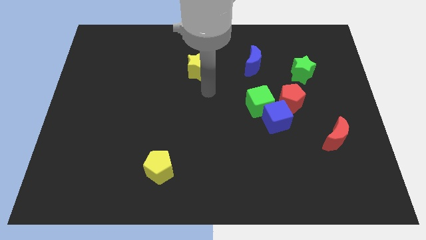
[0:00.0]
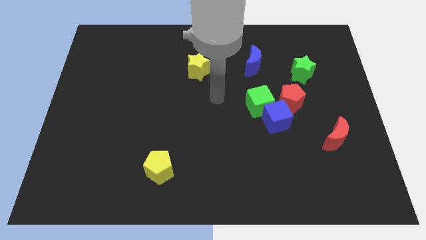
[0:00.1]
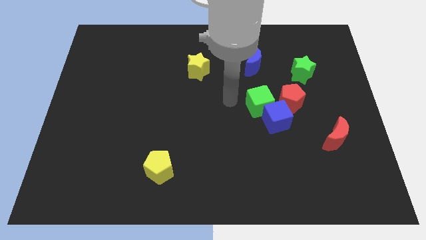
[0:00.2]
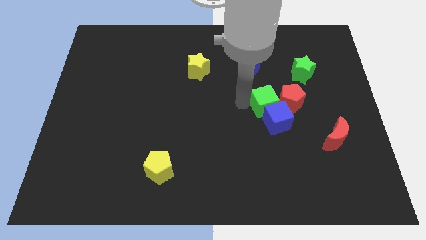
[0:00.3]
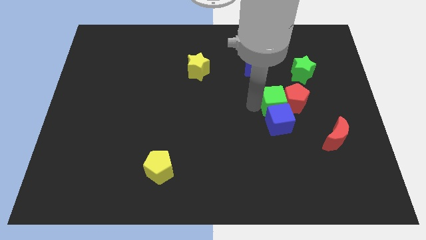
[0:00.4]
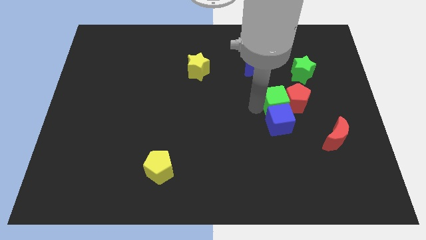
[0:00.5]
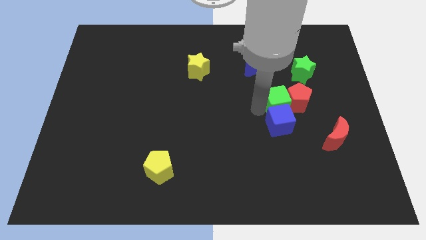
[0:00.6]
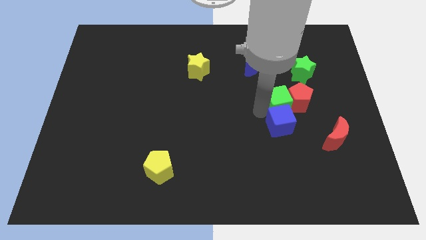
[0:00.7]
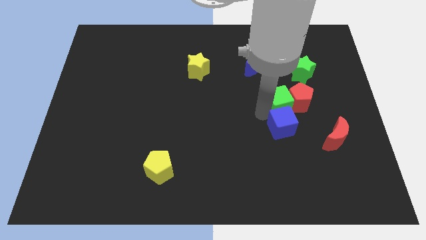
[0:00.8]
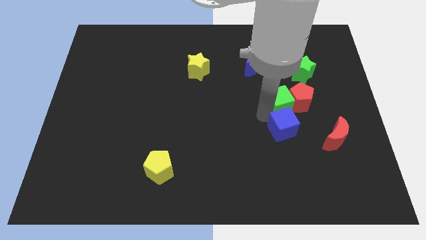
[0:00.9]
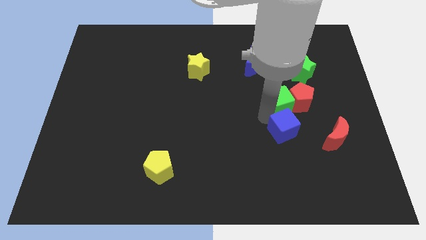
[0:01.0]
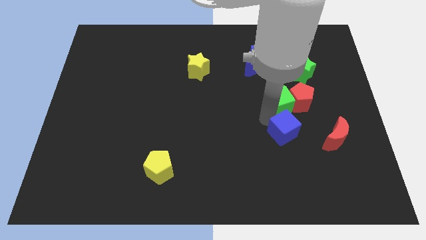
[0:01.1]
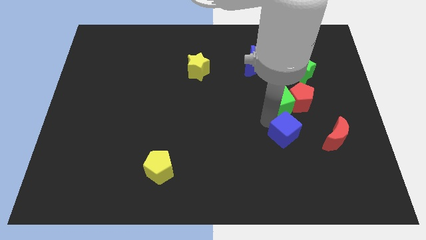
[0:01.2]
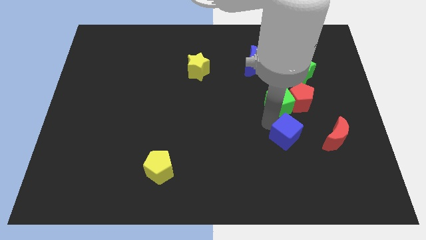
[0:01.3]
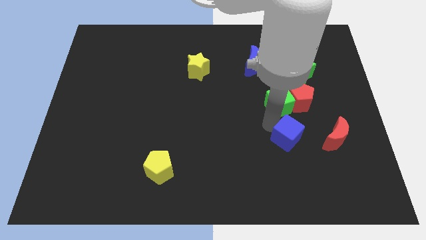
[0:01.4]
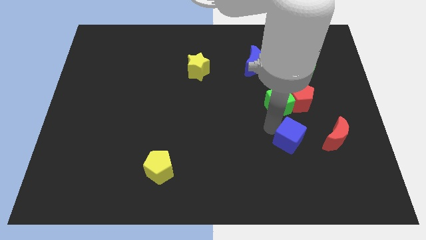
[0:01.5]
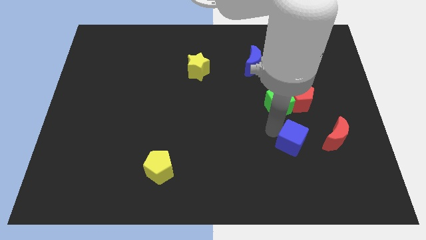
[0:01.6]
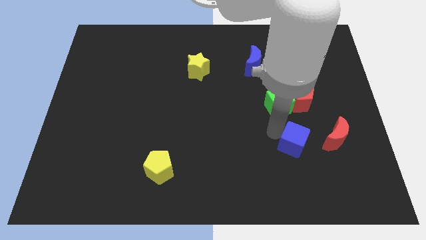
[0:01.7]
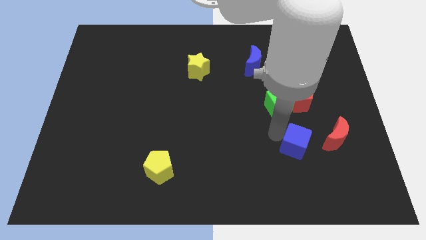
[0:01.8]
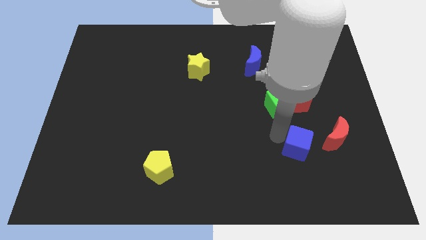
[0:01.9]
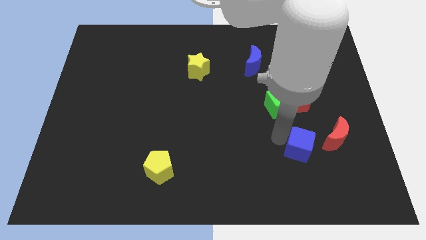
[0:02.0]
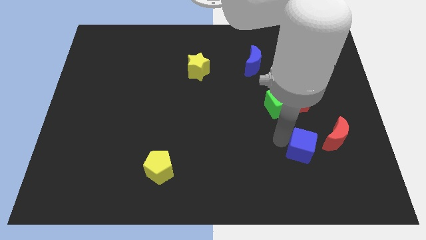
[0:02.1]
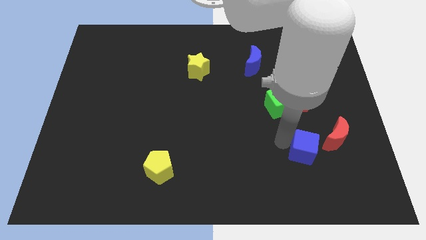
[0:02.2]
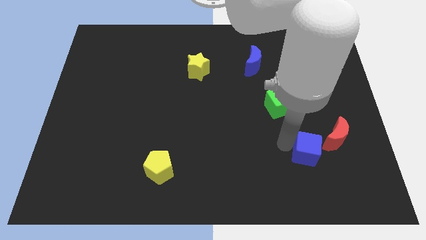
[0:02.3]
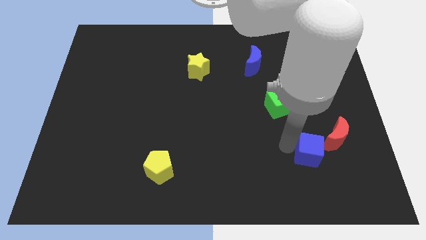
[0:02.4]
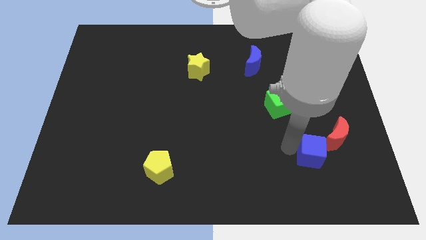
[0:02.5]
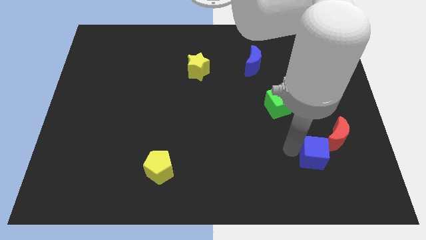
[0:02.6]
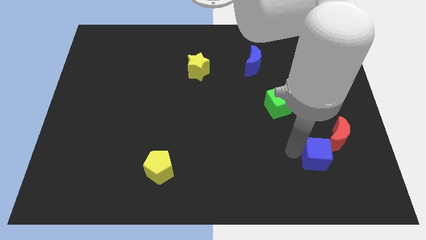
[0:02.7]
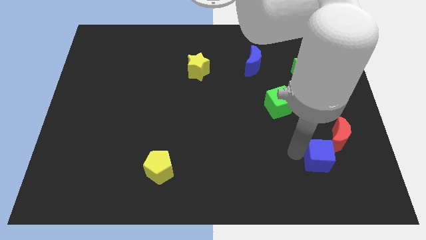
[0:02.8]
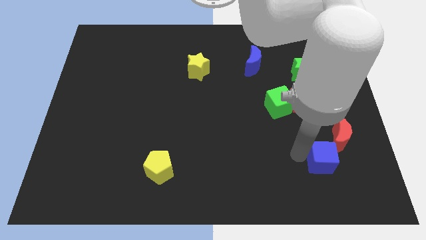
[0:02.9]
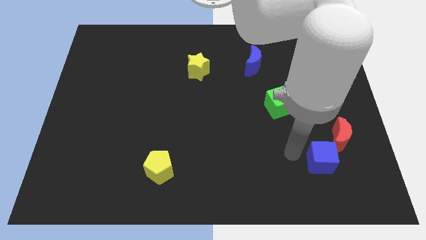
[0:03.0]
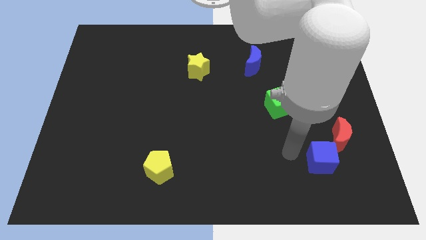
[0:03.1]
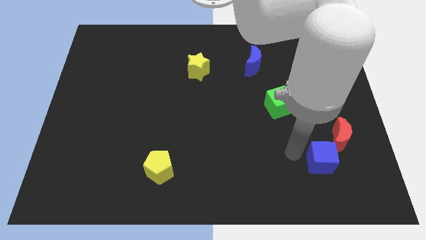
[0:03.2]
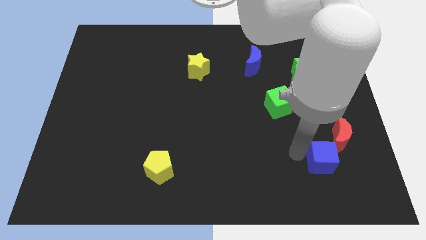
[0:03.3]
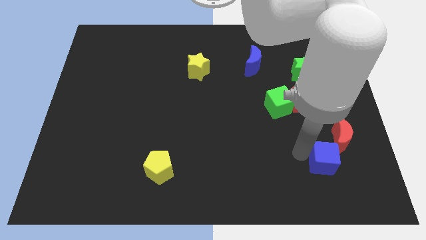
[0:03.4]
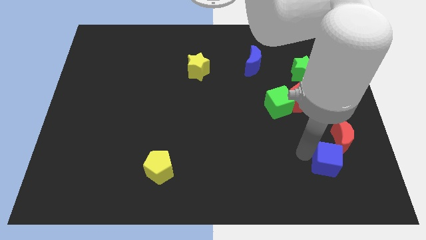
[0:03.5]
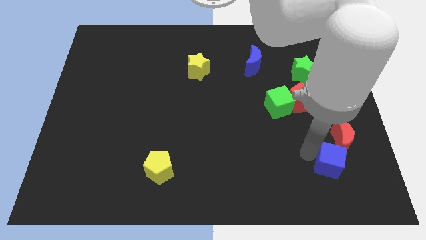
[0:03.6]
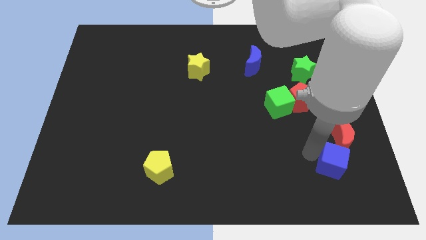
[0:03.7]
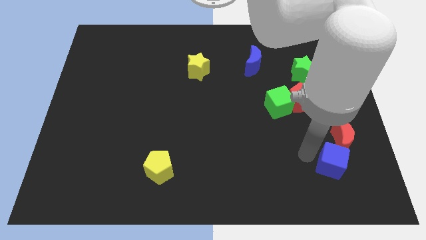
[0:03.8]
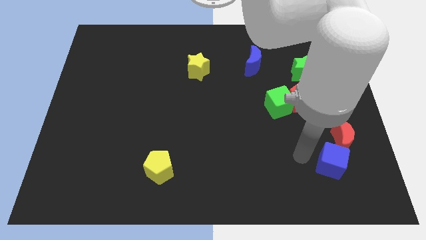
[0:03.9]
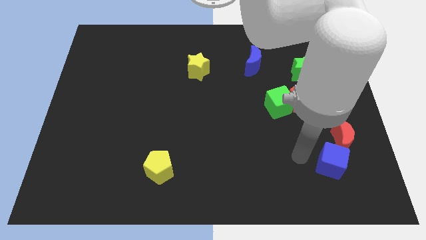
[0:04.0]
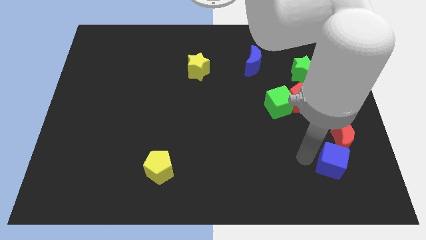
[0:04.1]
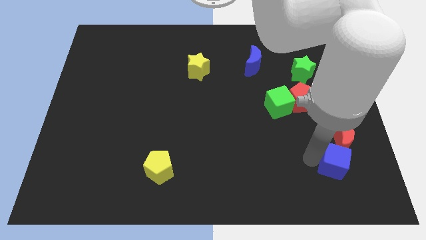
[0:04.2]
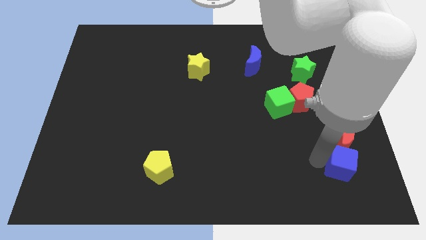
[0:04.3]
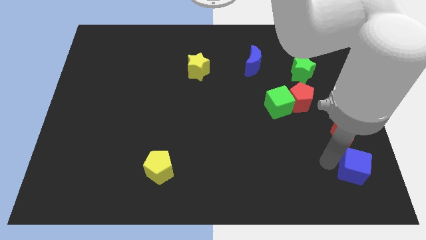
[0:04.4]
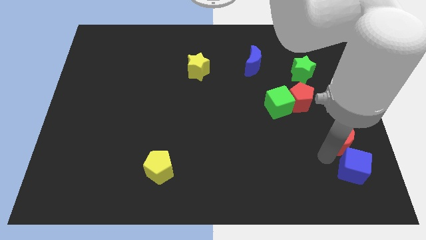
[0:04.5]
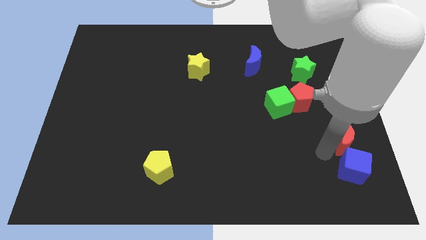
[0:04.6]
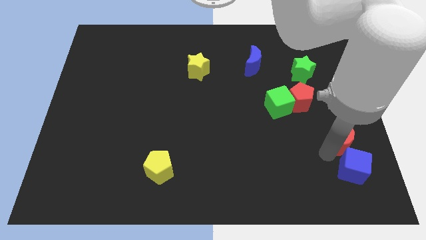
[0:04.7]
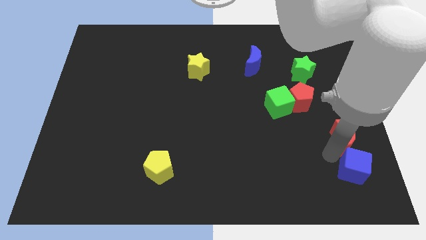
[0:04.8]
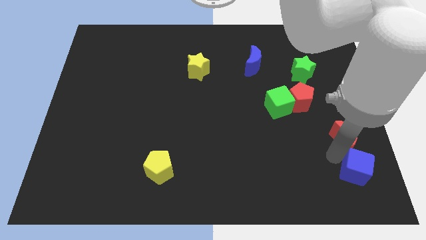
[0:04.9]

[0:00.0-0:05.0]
slide the blue cube to the bottom right corner
